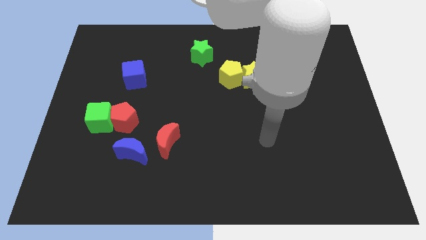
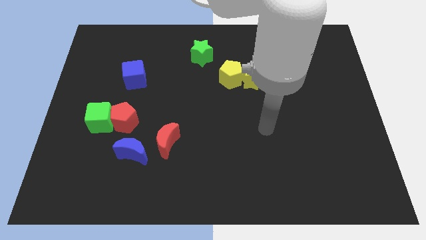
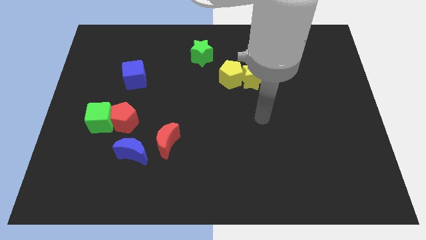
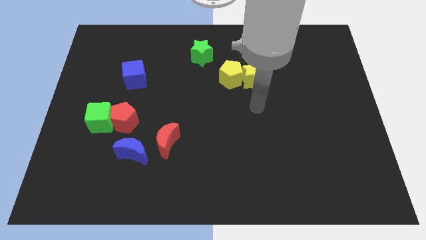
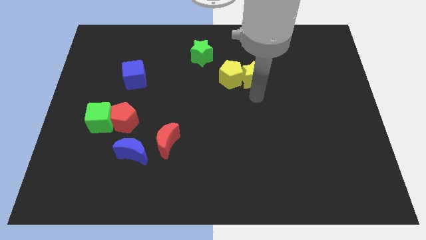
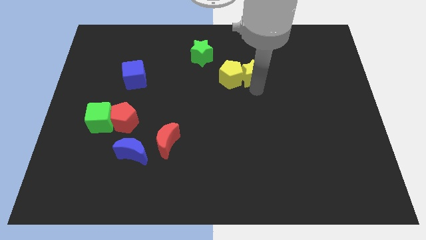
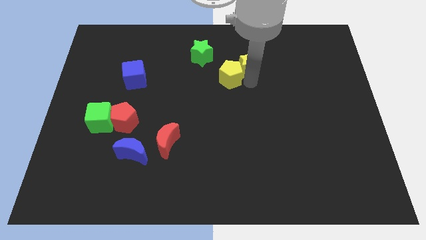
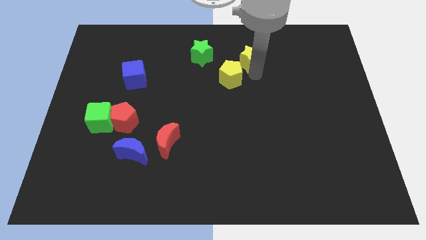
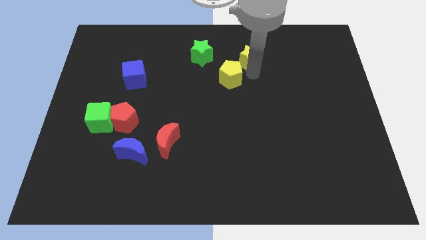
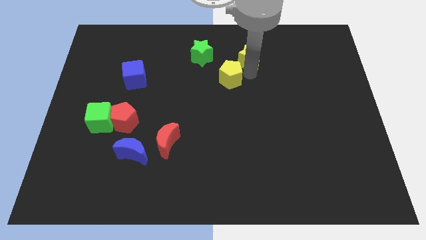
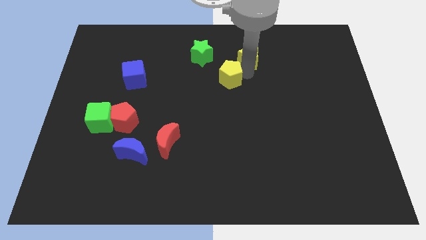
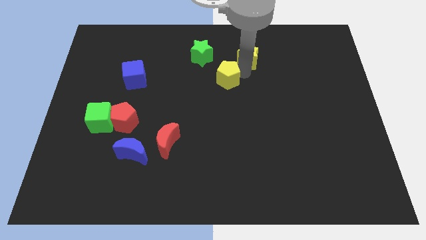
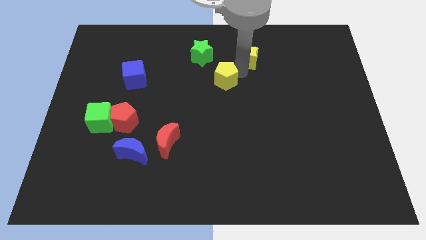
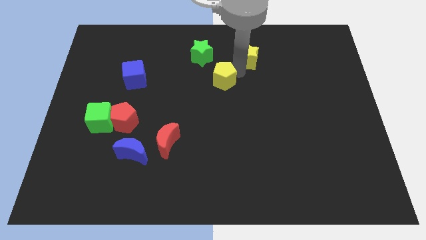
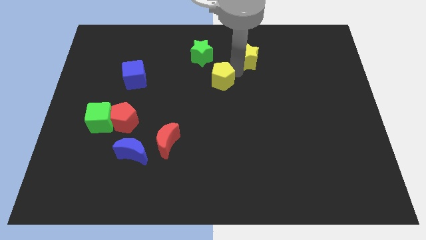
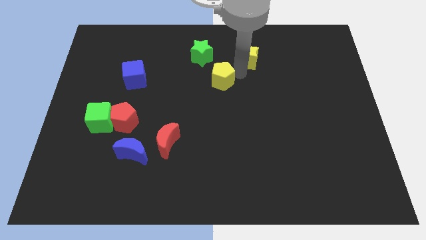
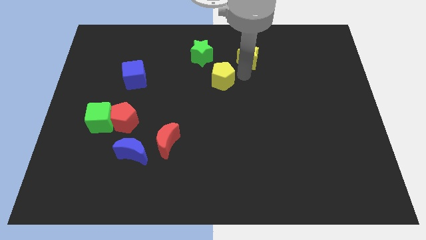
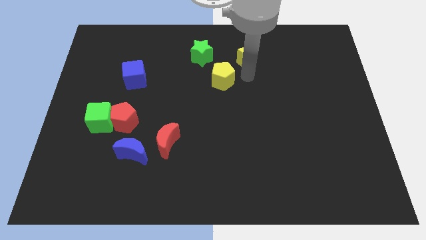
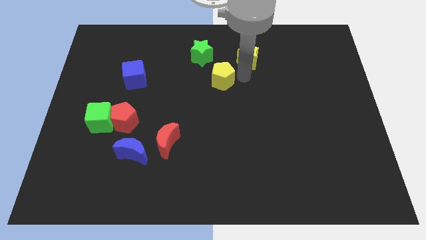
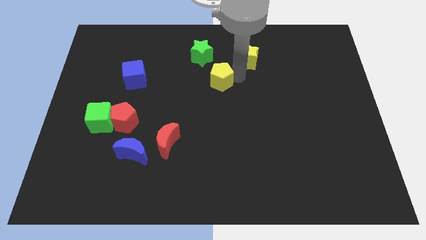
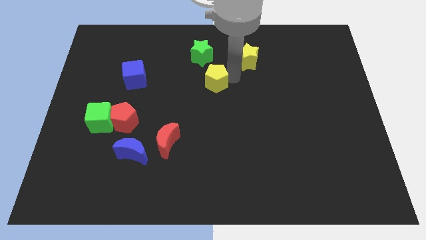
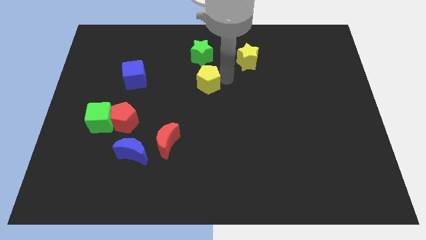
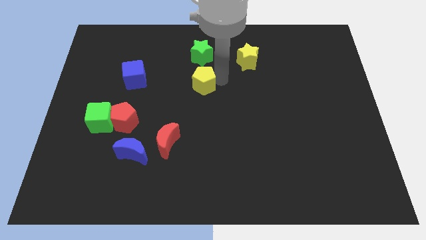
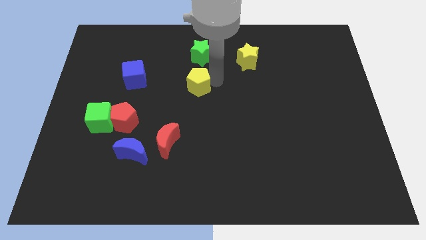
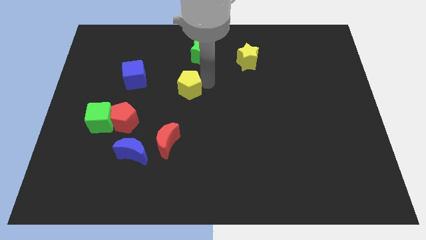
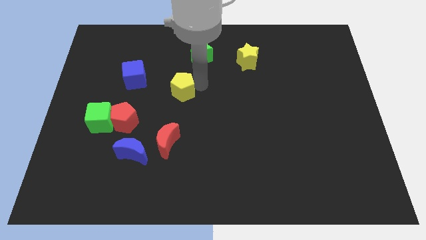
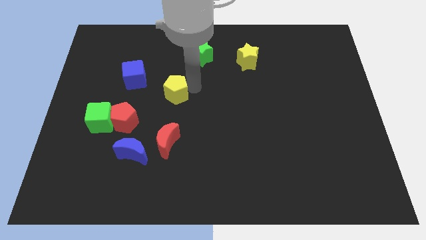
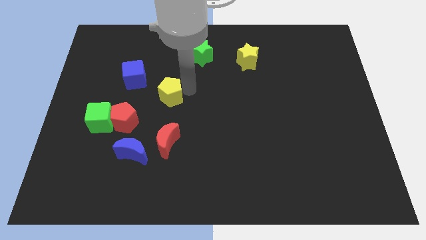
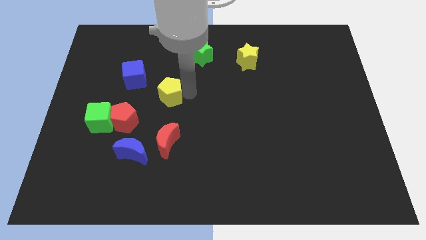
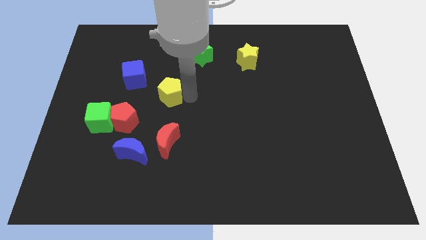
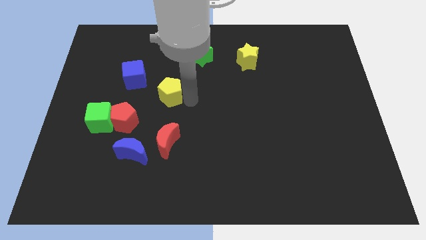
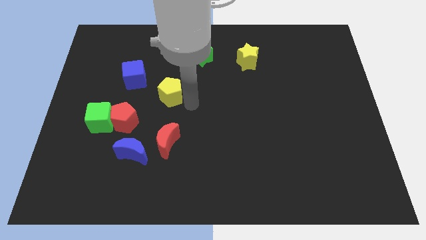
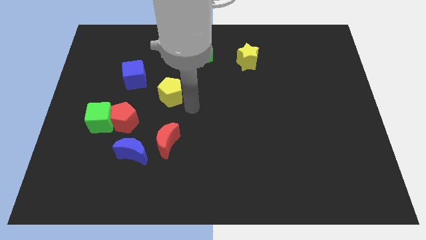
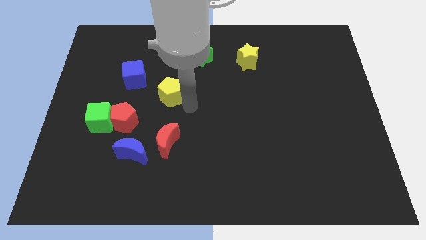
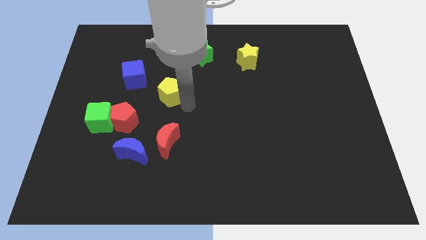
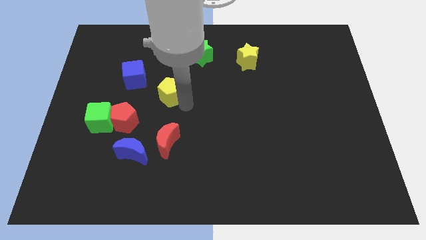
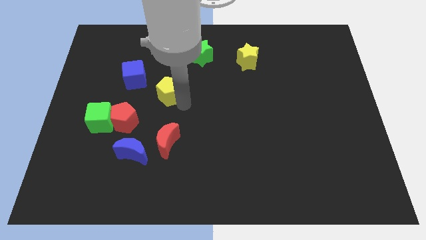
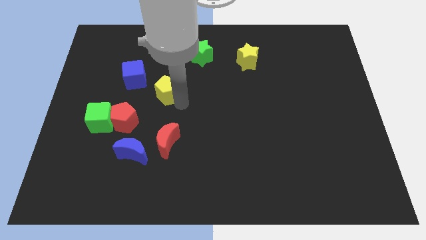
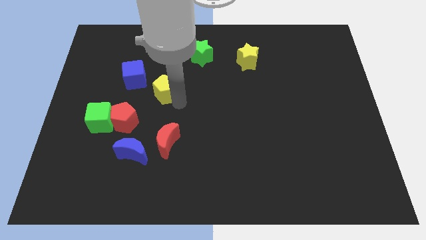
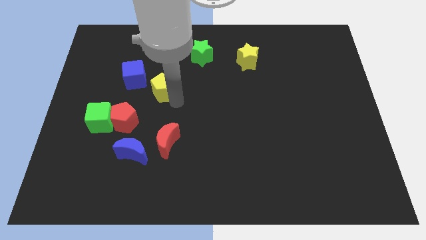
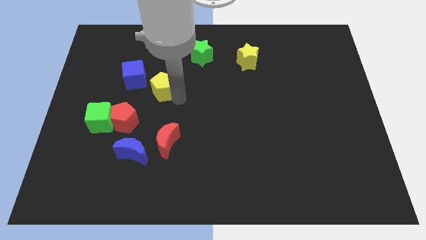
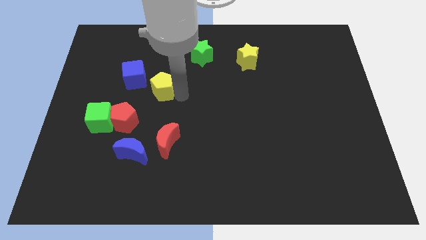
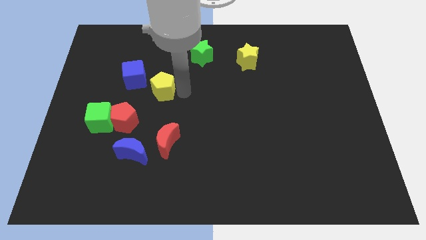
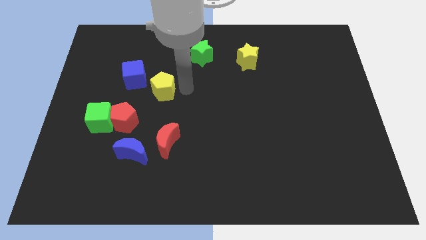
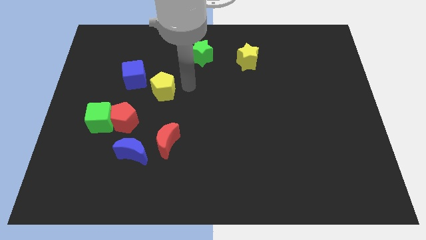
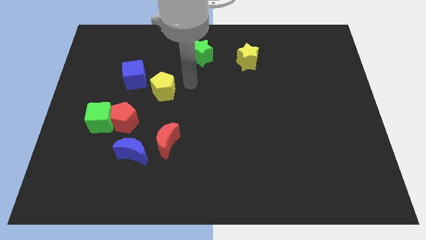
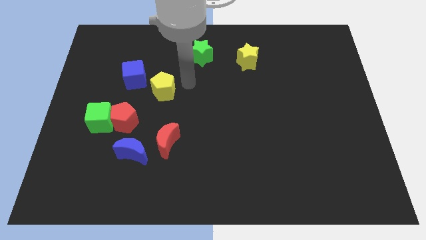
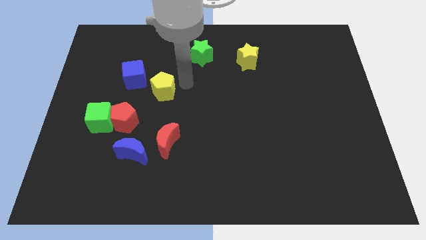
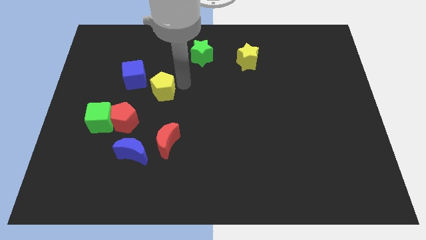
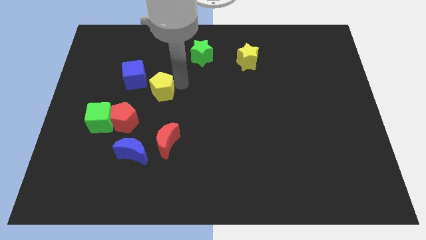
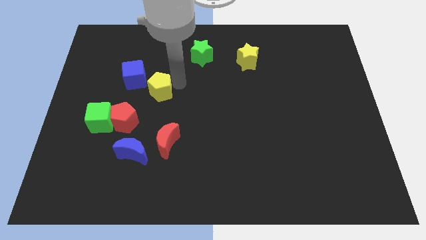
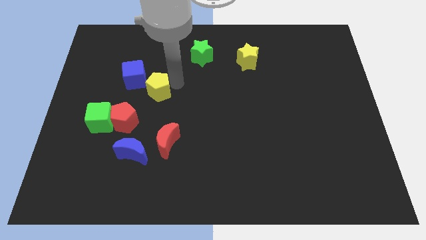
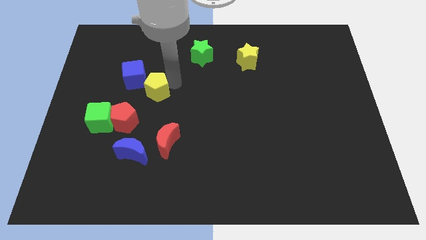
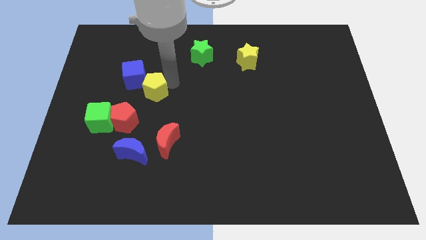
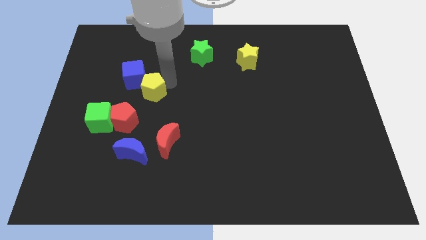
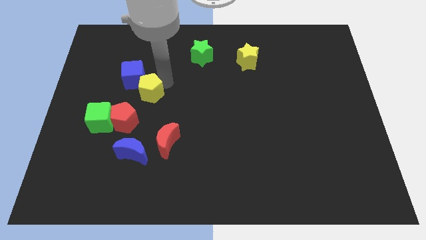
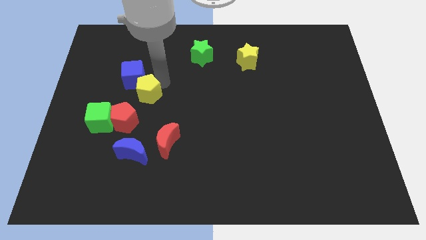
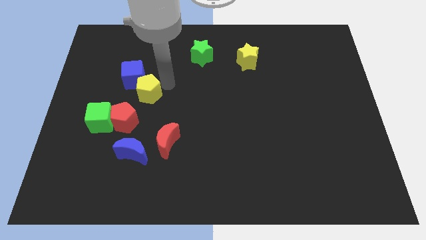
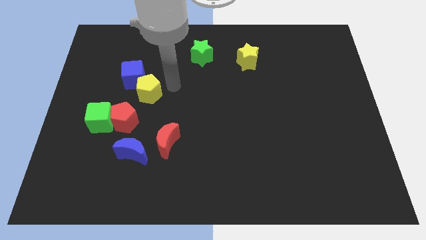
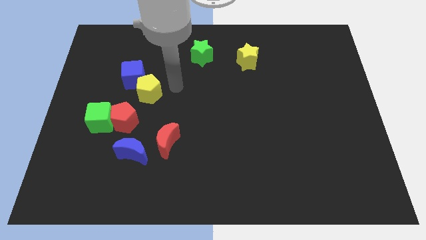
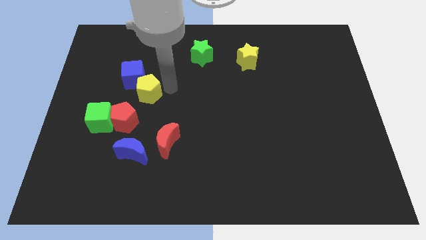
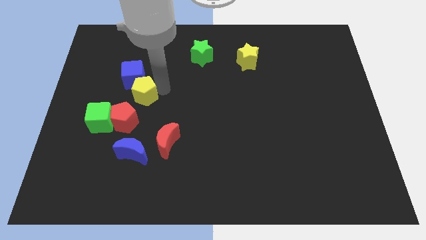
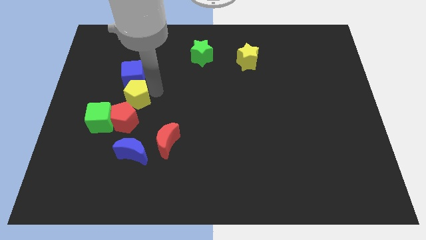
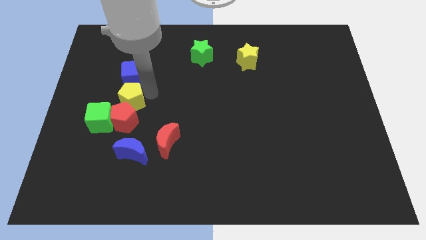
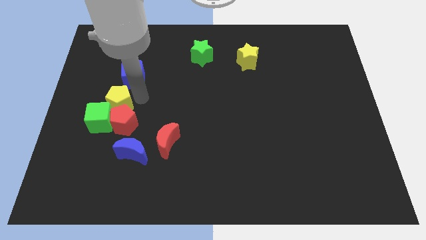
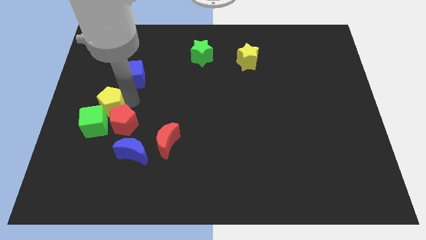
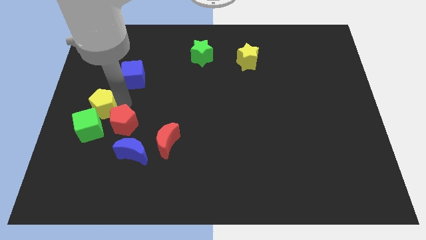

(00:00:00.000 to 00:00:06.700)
put the yellow pentagon to the left side
